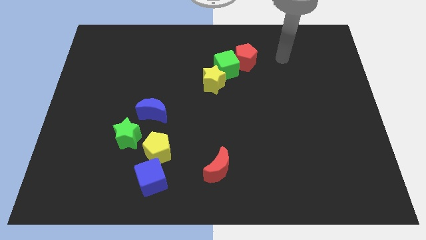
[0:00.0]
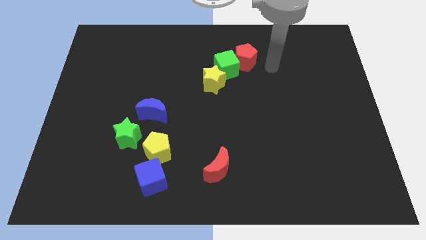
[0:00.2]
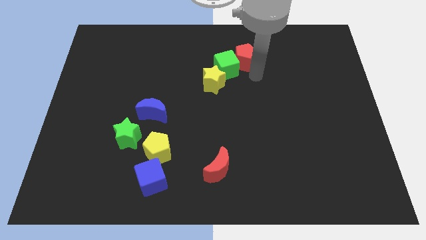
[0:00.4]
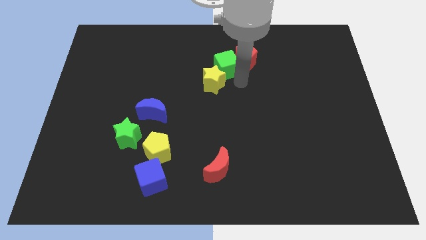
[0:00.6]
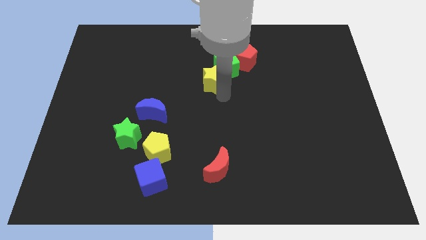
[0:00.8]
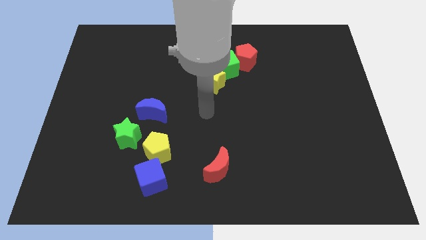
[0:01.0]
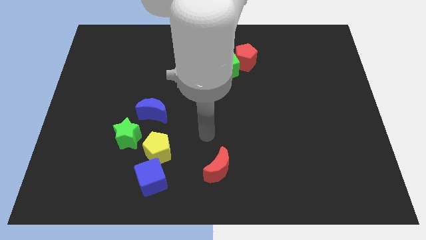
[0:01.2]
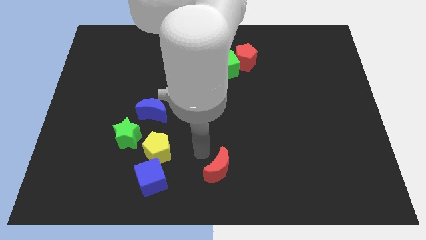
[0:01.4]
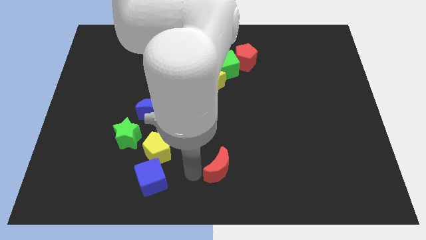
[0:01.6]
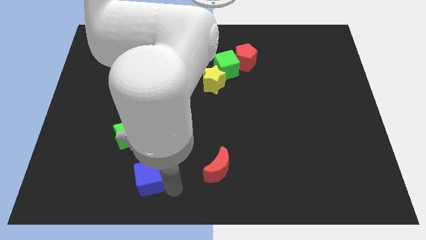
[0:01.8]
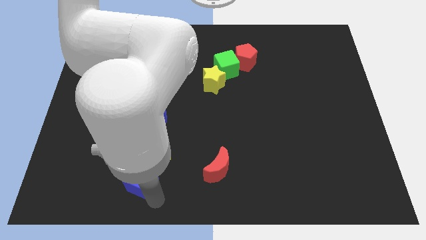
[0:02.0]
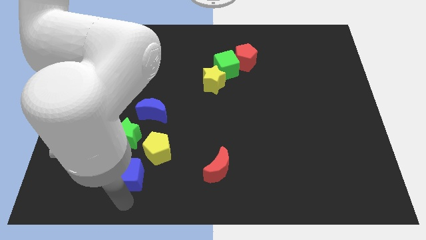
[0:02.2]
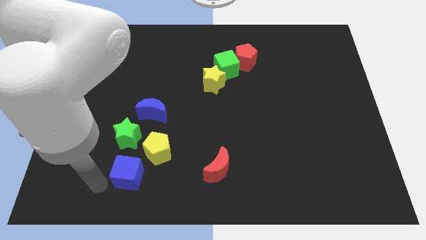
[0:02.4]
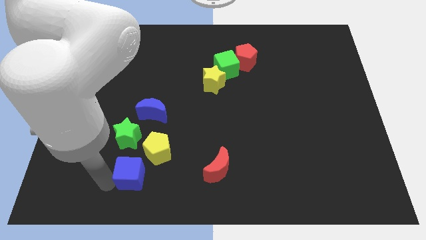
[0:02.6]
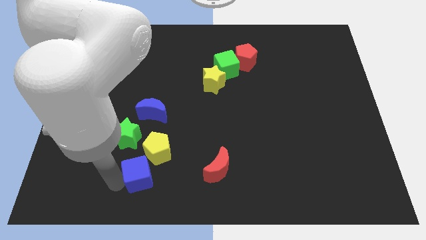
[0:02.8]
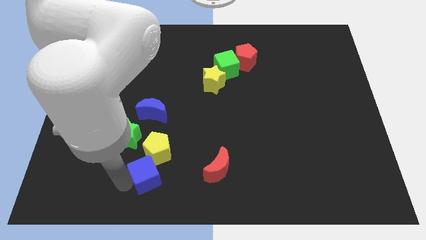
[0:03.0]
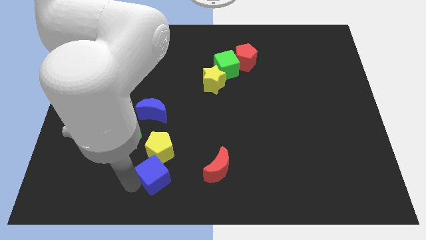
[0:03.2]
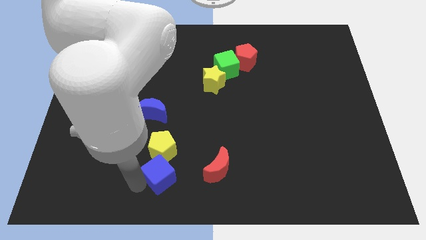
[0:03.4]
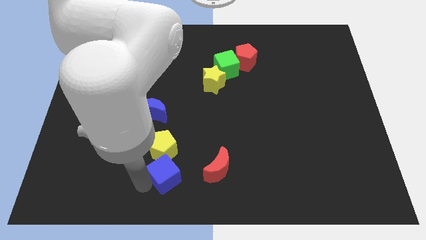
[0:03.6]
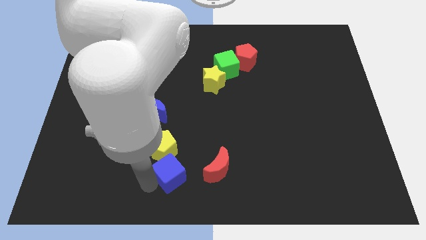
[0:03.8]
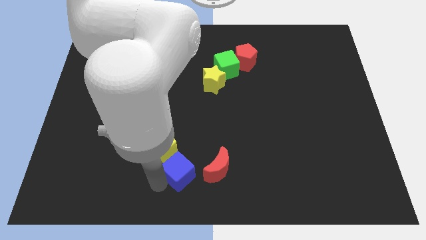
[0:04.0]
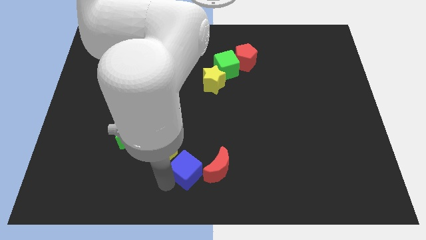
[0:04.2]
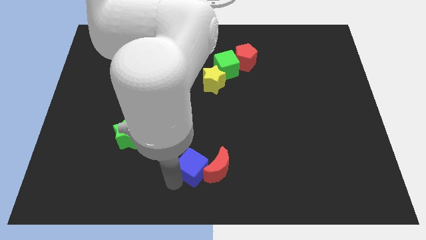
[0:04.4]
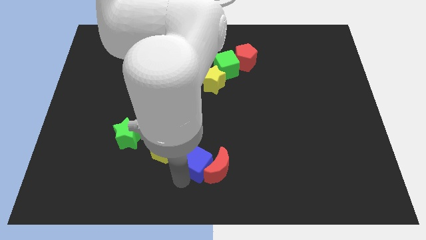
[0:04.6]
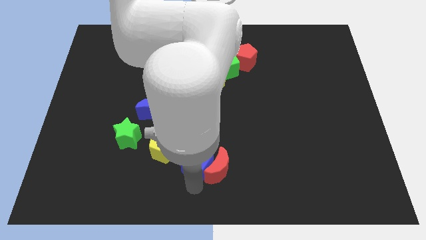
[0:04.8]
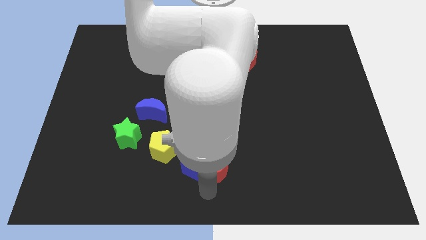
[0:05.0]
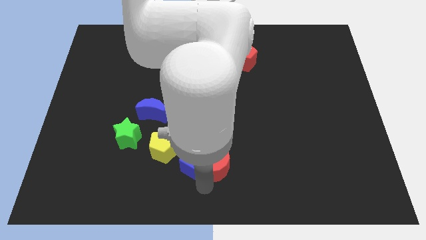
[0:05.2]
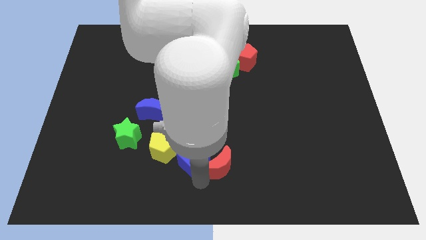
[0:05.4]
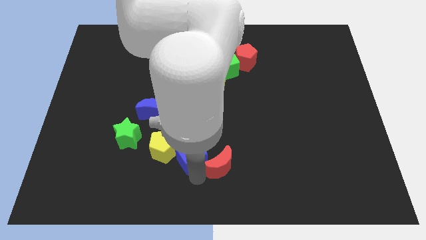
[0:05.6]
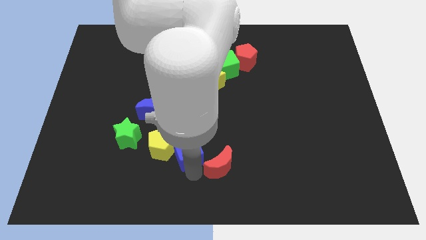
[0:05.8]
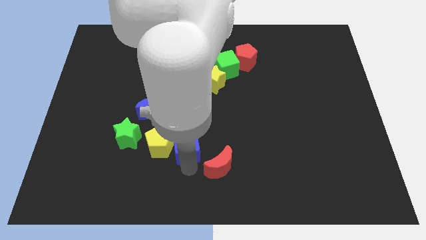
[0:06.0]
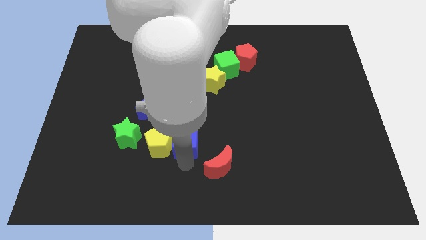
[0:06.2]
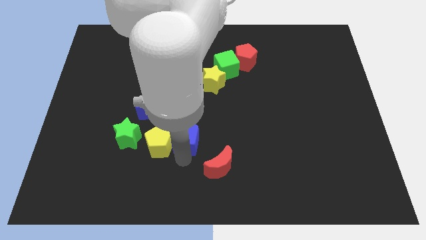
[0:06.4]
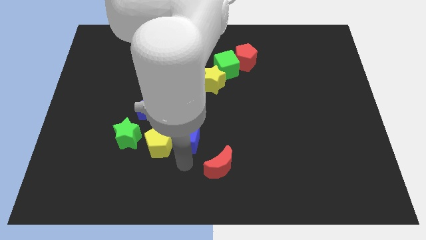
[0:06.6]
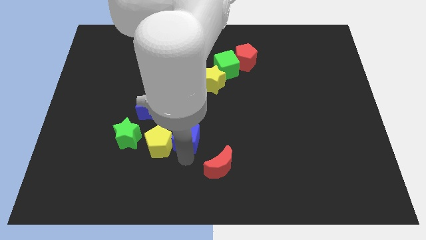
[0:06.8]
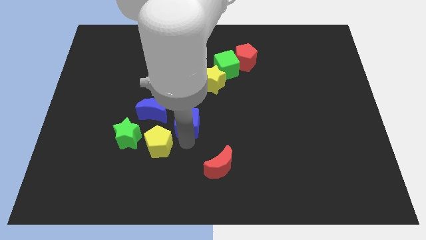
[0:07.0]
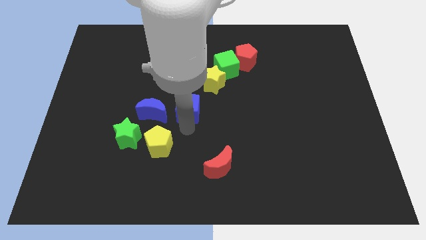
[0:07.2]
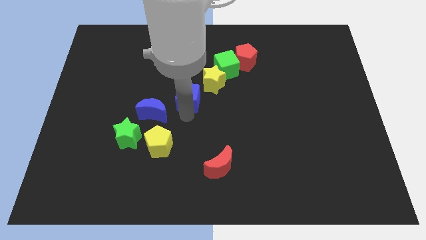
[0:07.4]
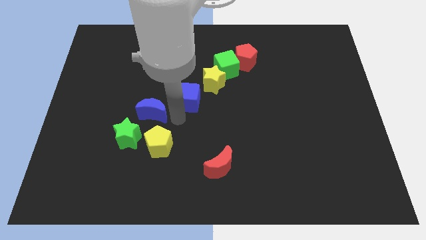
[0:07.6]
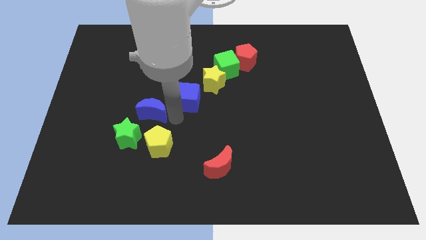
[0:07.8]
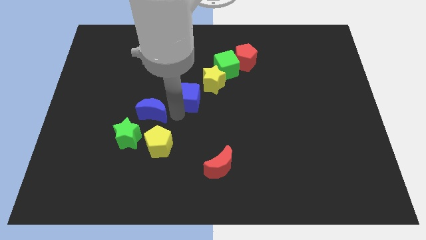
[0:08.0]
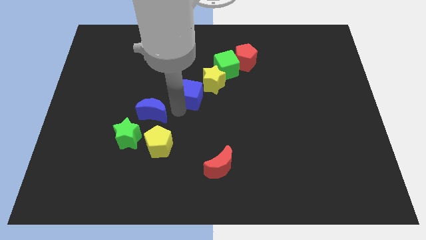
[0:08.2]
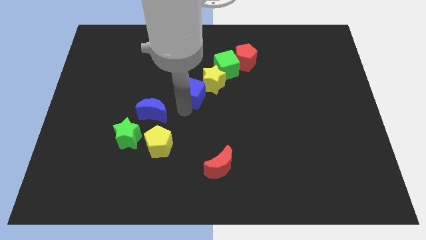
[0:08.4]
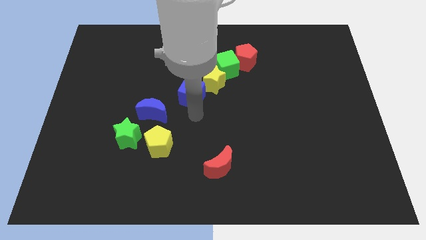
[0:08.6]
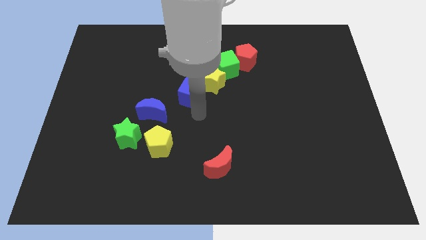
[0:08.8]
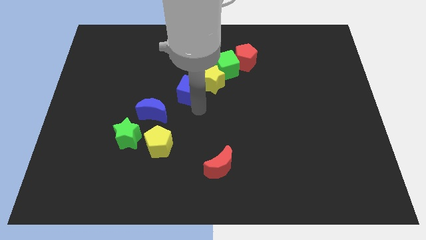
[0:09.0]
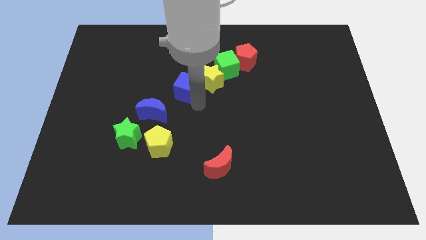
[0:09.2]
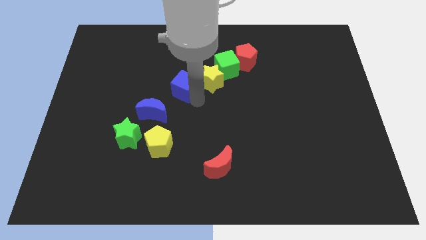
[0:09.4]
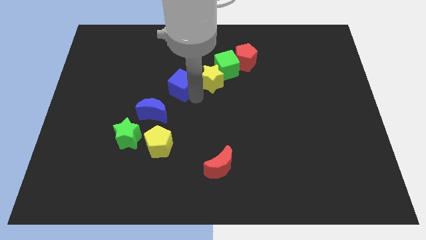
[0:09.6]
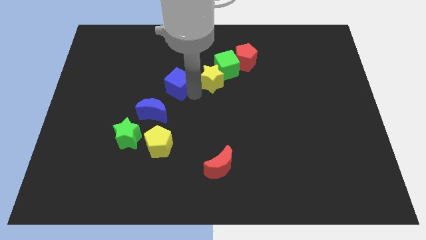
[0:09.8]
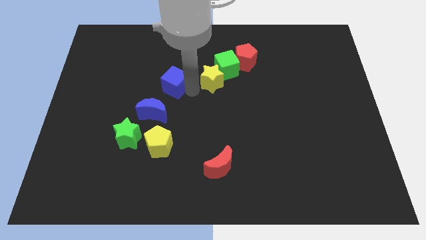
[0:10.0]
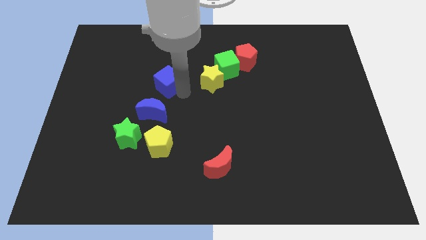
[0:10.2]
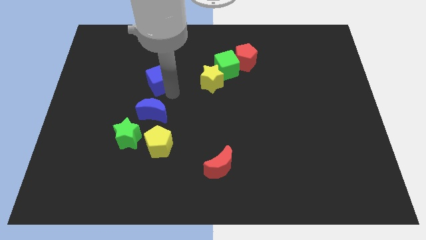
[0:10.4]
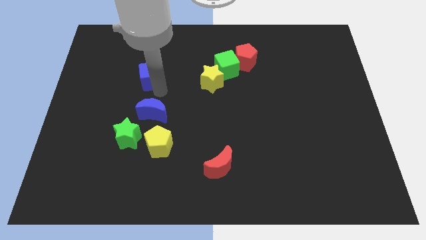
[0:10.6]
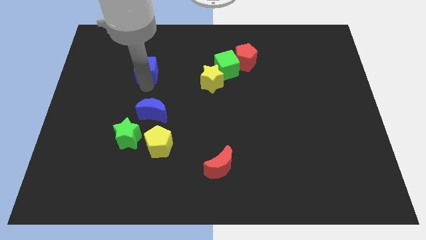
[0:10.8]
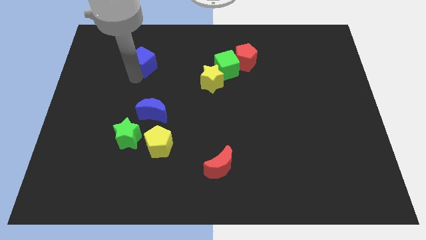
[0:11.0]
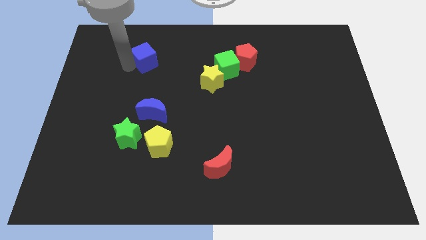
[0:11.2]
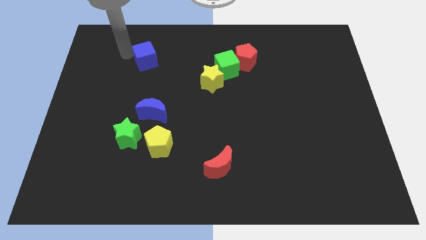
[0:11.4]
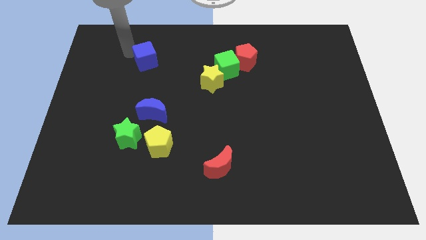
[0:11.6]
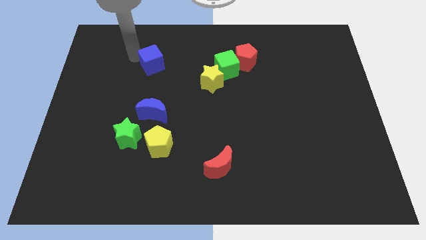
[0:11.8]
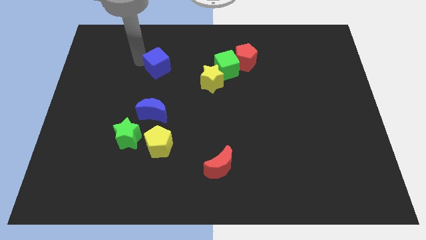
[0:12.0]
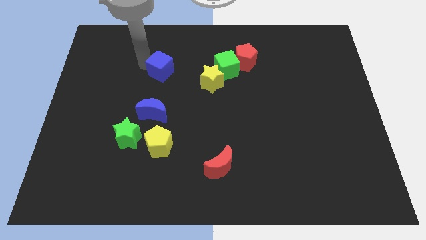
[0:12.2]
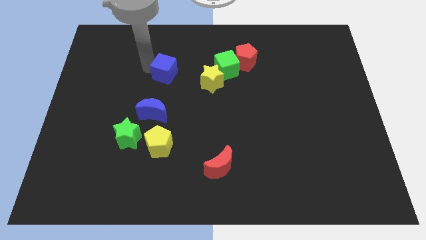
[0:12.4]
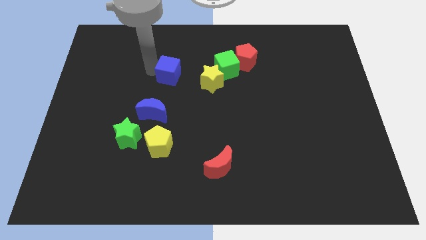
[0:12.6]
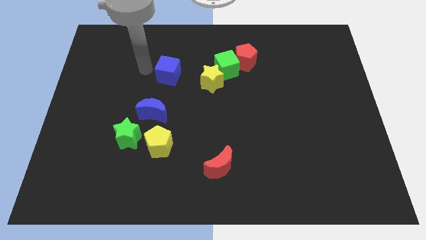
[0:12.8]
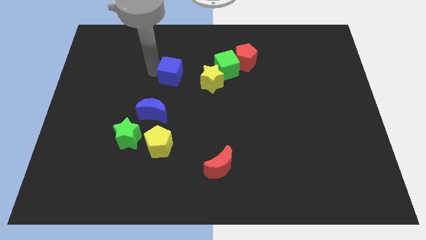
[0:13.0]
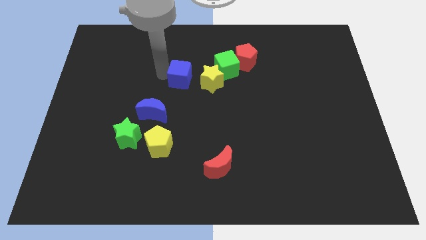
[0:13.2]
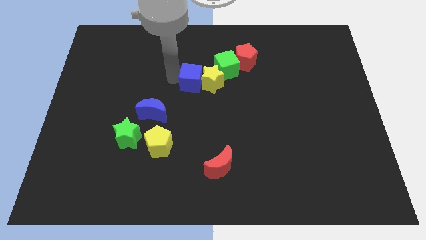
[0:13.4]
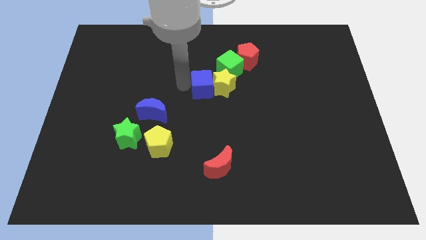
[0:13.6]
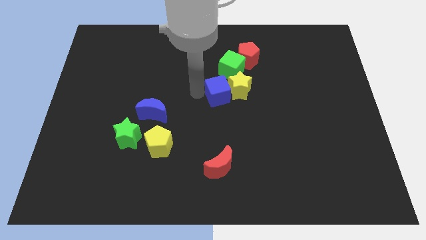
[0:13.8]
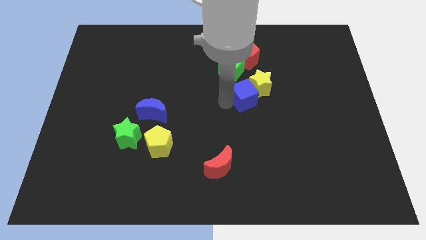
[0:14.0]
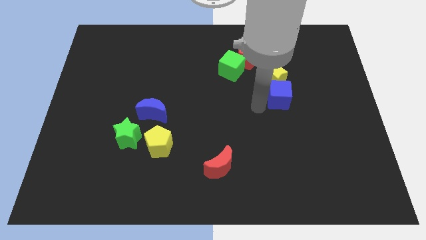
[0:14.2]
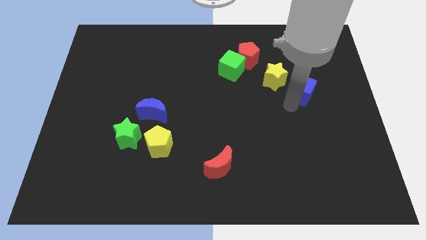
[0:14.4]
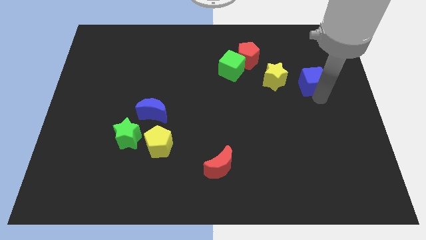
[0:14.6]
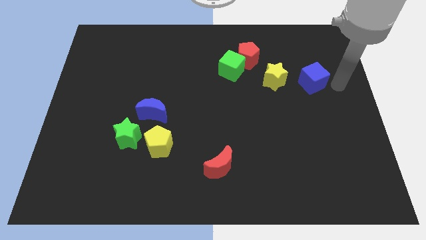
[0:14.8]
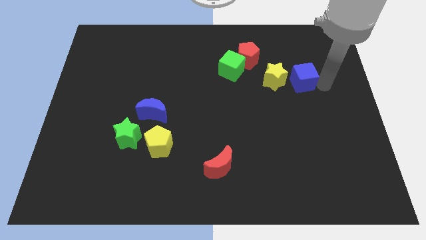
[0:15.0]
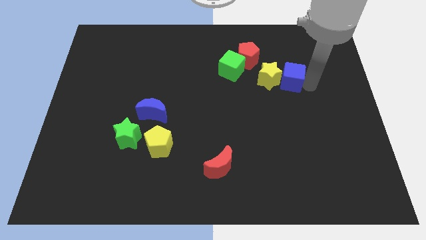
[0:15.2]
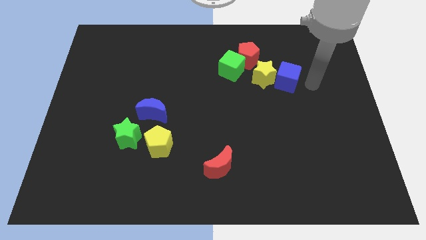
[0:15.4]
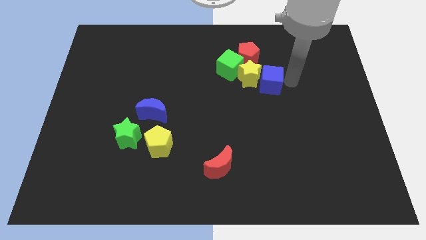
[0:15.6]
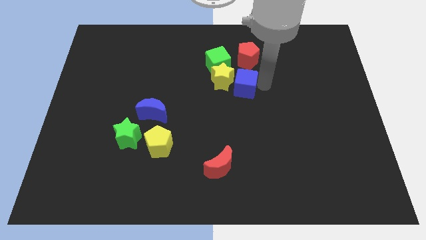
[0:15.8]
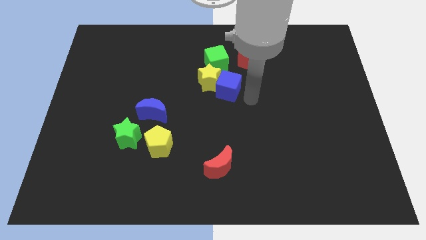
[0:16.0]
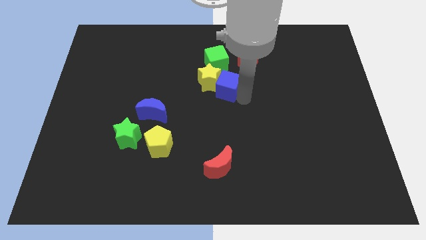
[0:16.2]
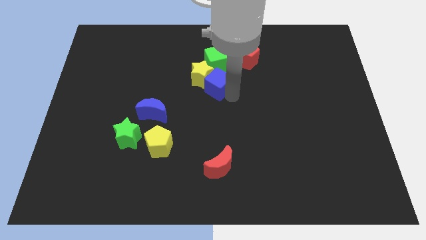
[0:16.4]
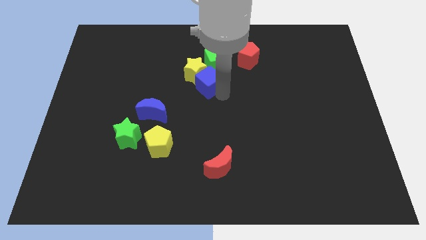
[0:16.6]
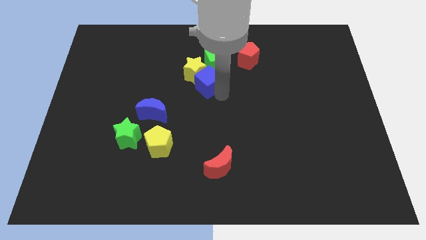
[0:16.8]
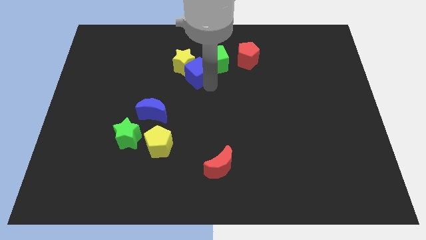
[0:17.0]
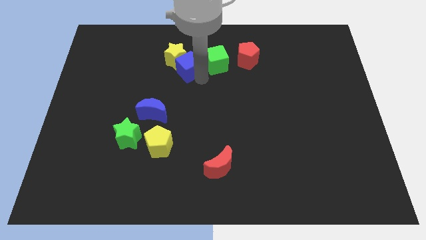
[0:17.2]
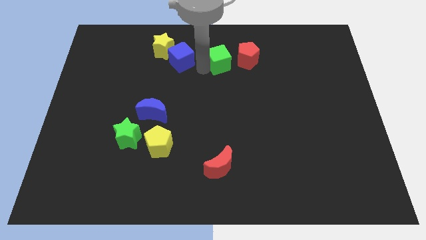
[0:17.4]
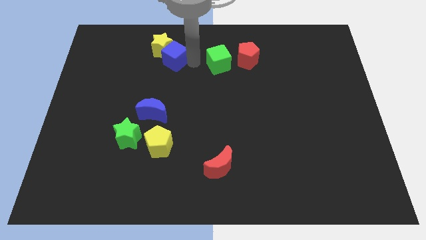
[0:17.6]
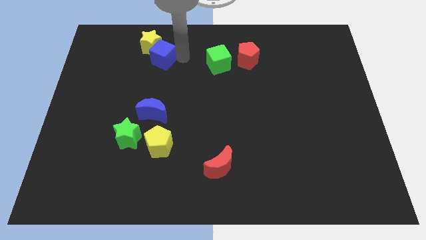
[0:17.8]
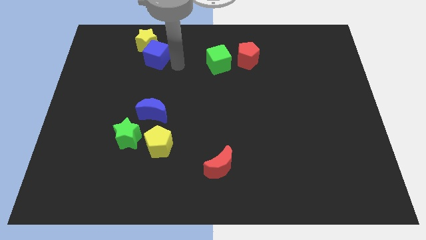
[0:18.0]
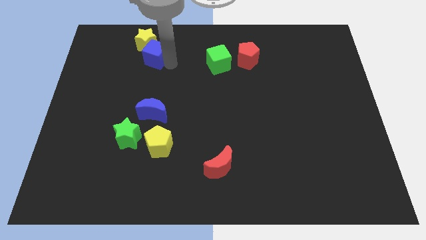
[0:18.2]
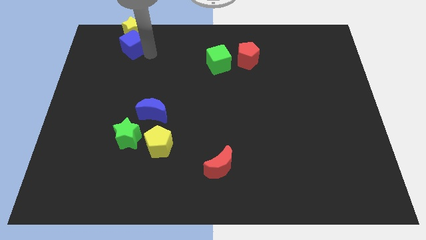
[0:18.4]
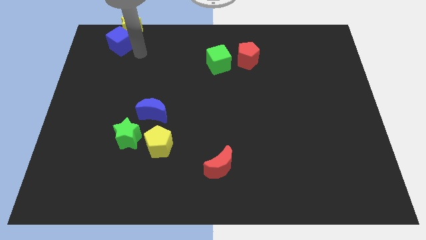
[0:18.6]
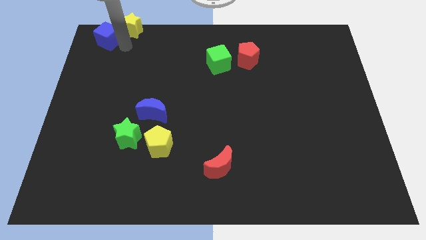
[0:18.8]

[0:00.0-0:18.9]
slide the blue cube to the upper left corner
